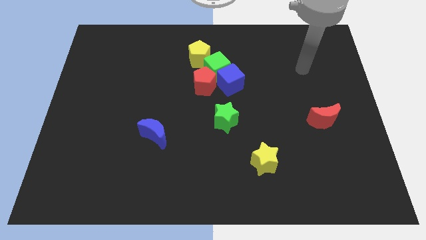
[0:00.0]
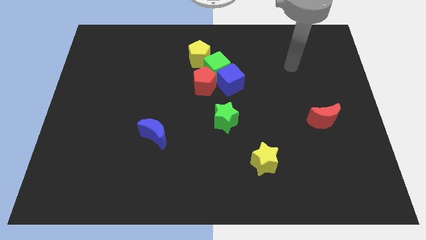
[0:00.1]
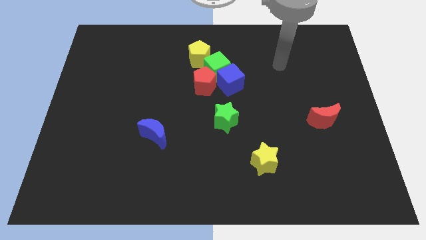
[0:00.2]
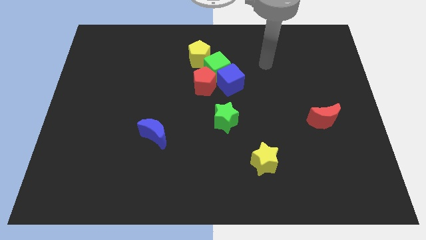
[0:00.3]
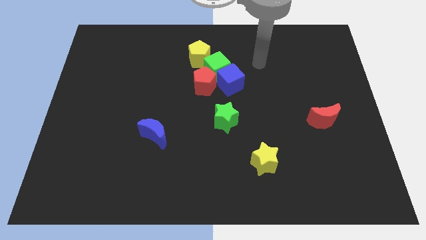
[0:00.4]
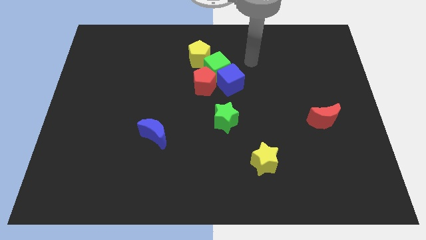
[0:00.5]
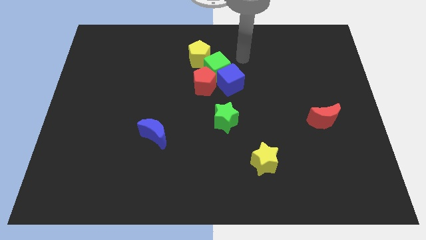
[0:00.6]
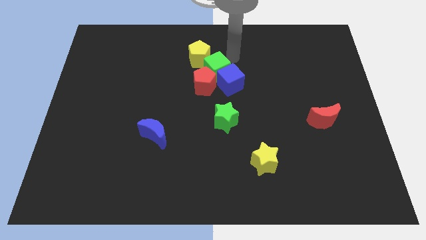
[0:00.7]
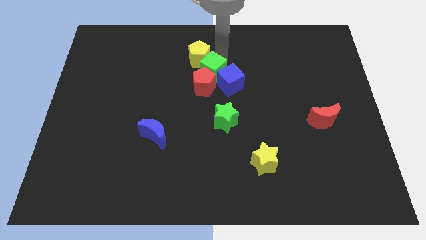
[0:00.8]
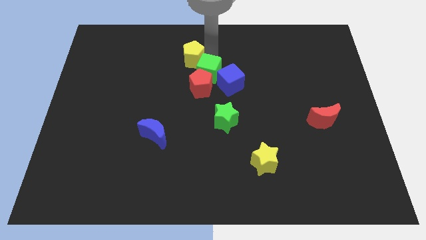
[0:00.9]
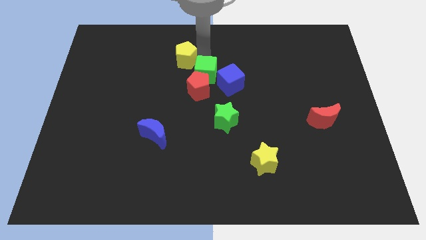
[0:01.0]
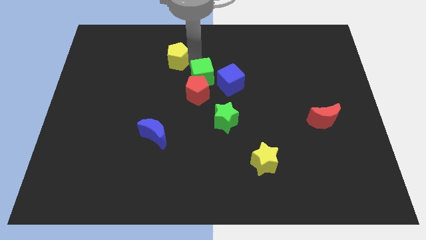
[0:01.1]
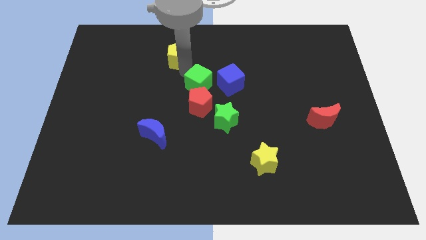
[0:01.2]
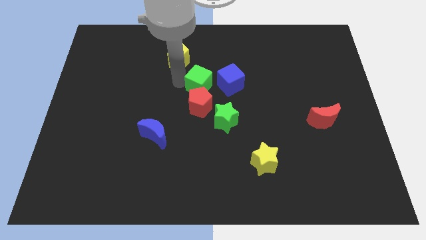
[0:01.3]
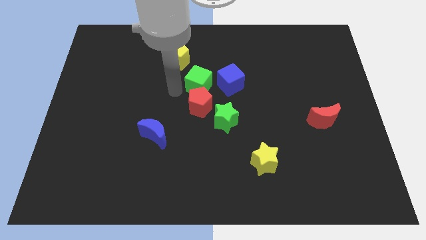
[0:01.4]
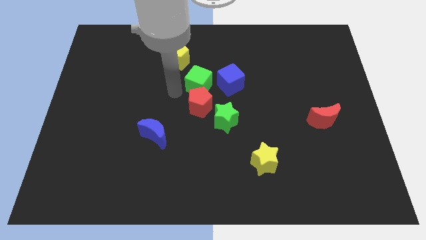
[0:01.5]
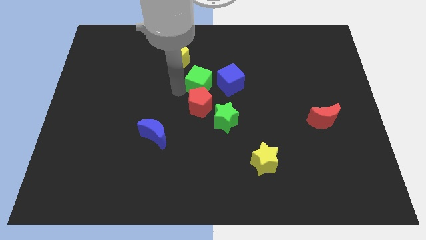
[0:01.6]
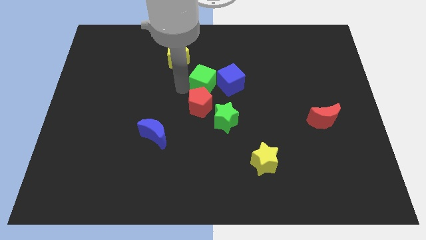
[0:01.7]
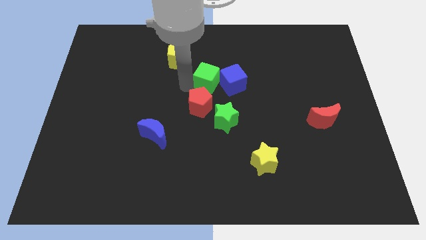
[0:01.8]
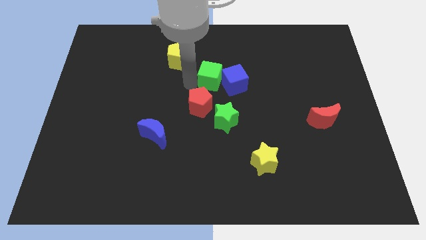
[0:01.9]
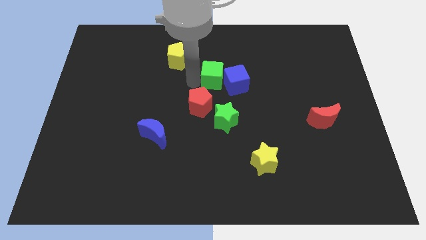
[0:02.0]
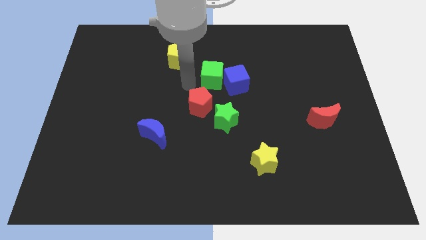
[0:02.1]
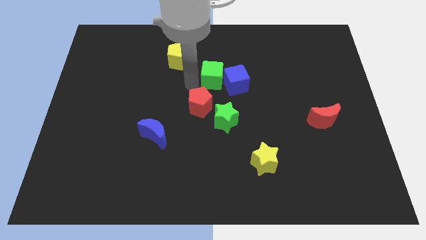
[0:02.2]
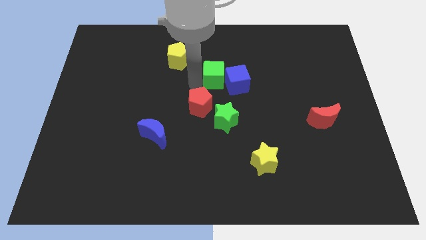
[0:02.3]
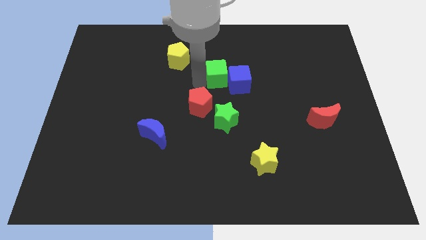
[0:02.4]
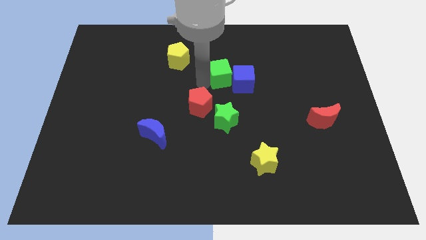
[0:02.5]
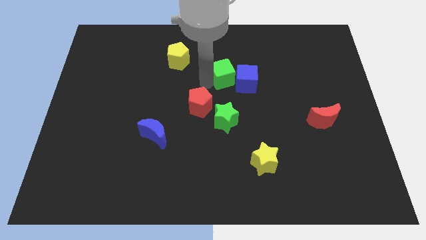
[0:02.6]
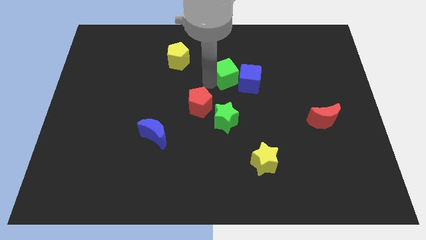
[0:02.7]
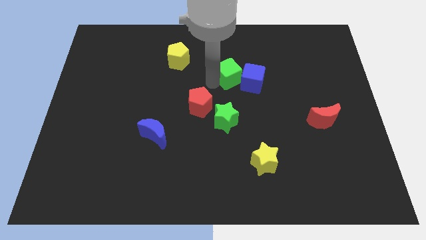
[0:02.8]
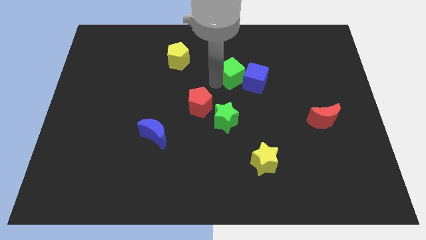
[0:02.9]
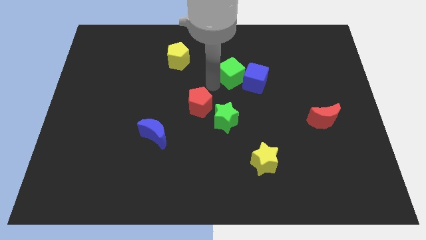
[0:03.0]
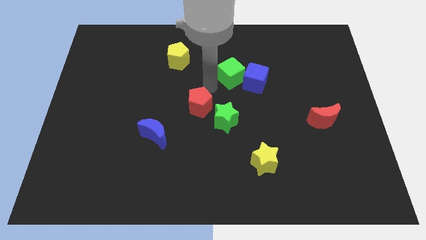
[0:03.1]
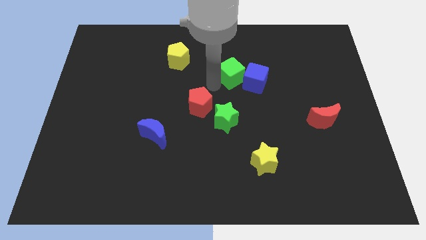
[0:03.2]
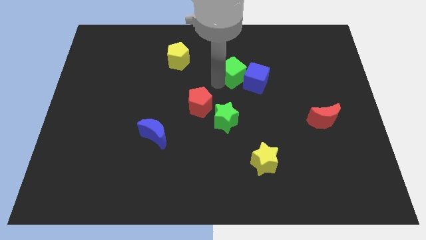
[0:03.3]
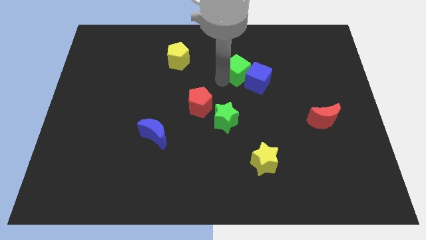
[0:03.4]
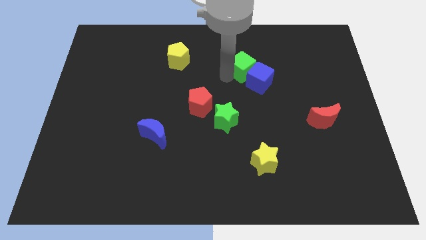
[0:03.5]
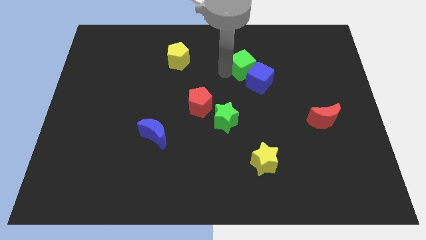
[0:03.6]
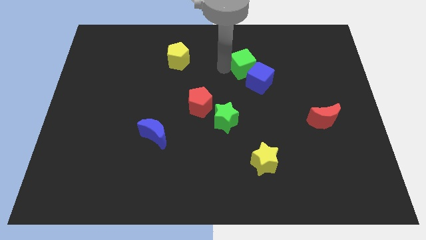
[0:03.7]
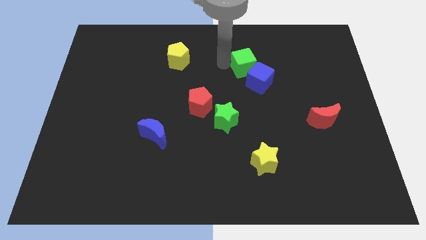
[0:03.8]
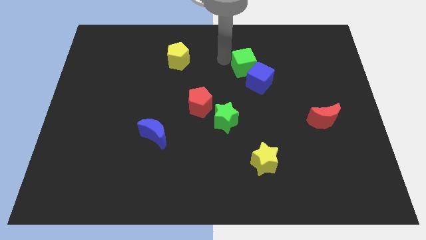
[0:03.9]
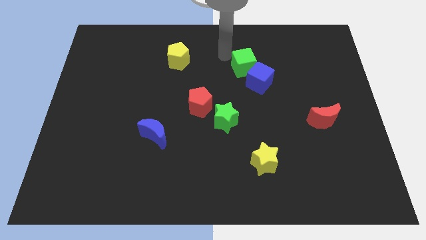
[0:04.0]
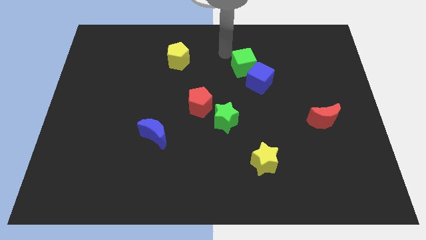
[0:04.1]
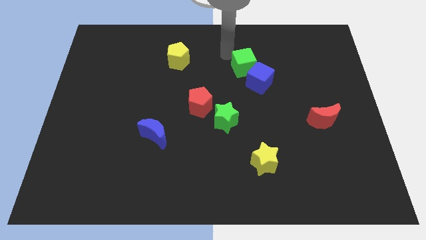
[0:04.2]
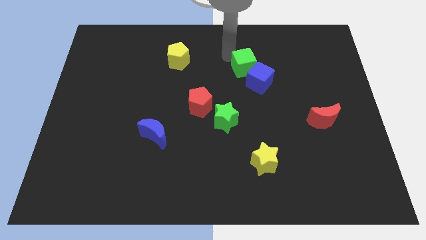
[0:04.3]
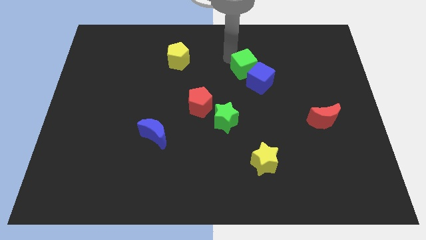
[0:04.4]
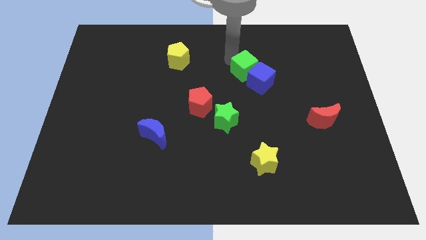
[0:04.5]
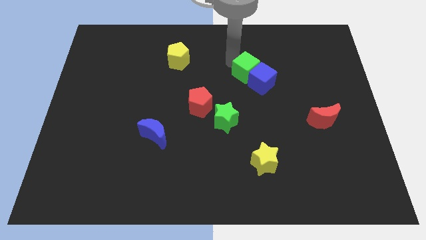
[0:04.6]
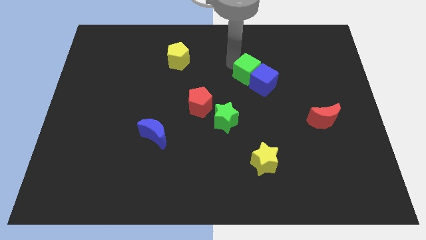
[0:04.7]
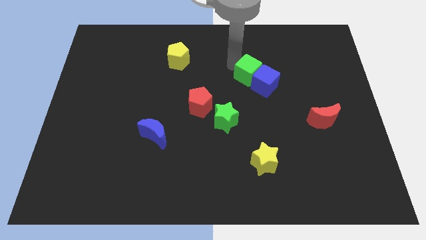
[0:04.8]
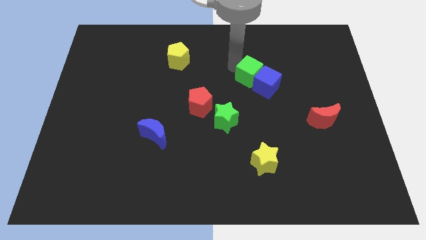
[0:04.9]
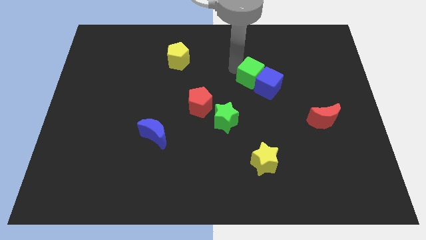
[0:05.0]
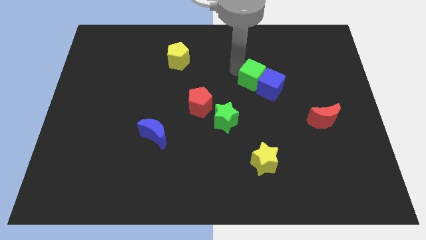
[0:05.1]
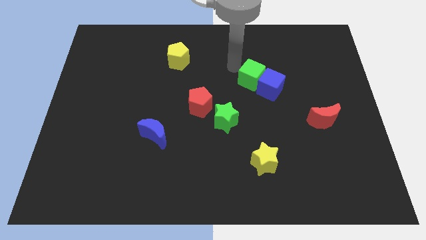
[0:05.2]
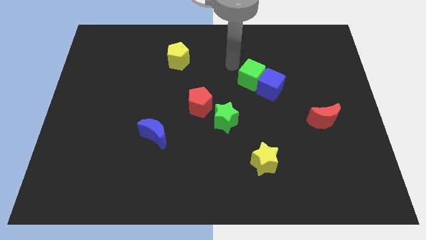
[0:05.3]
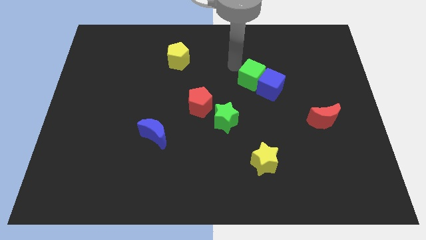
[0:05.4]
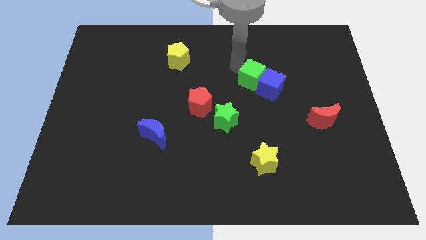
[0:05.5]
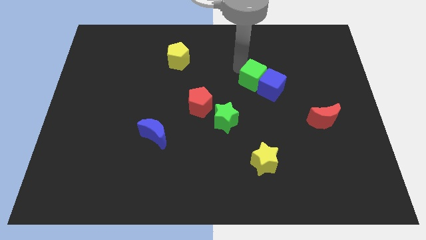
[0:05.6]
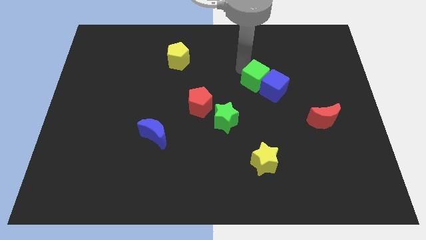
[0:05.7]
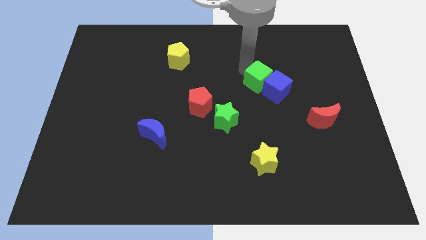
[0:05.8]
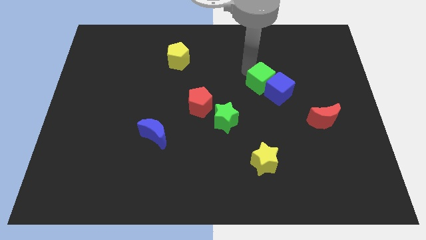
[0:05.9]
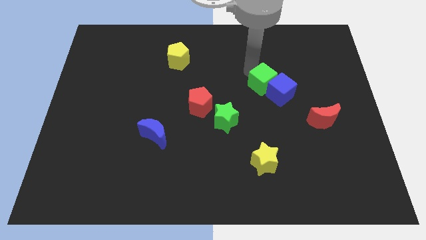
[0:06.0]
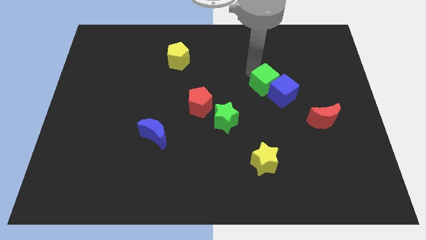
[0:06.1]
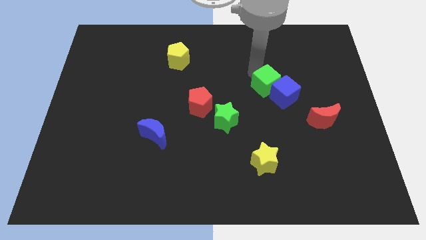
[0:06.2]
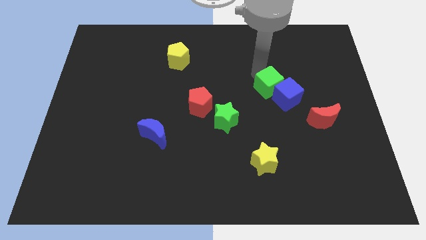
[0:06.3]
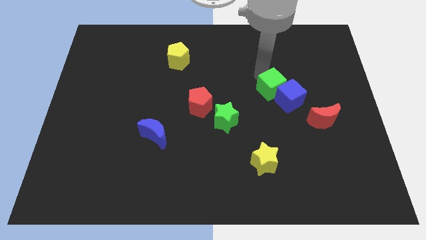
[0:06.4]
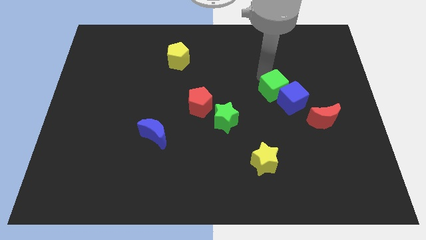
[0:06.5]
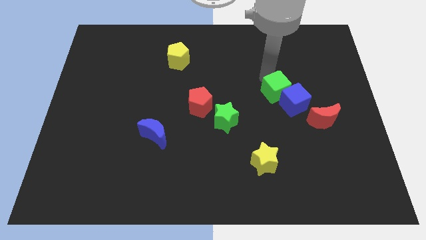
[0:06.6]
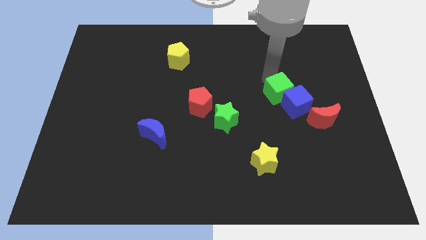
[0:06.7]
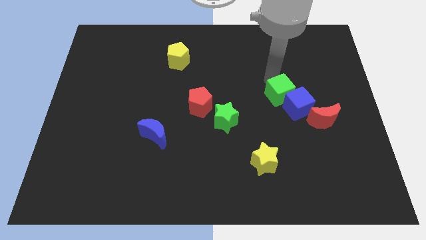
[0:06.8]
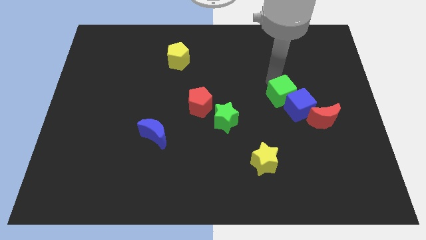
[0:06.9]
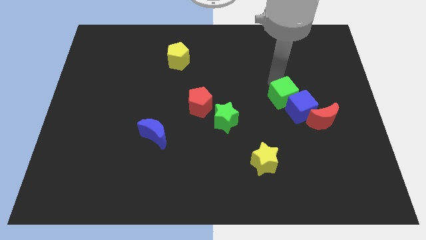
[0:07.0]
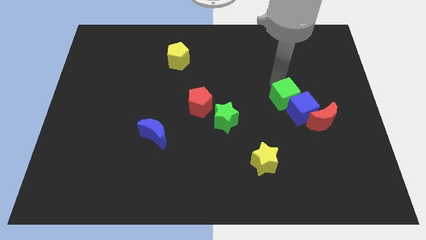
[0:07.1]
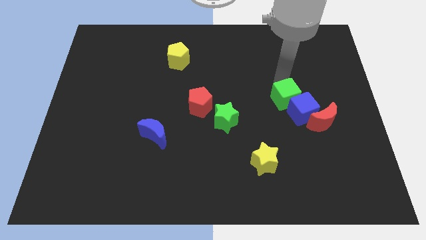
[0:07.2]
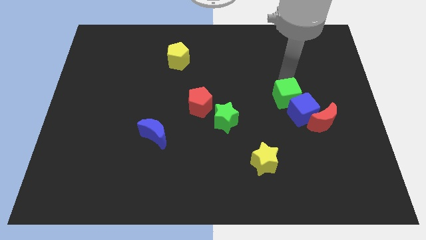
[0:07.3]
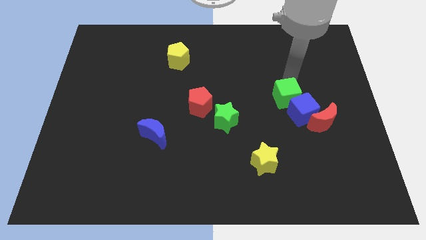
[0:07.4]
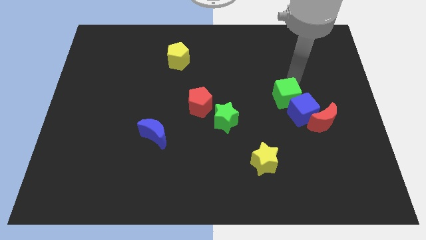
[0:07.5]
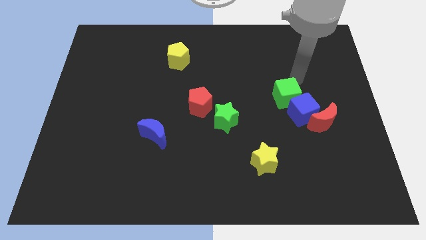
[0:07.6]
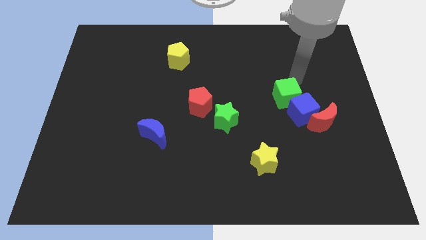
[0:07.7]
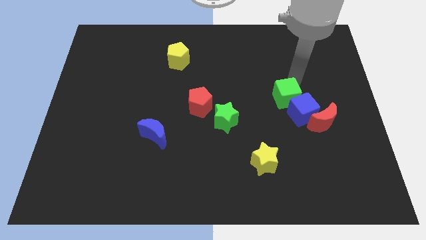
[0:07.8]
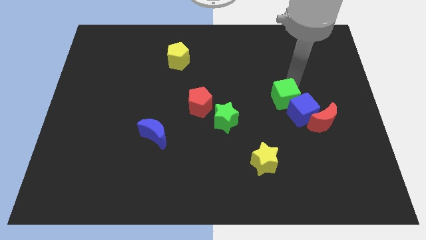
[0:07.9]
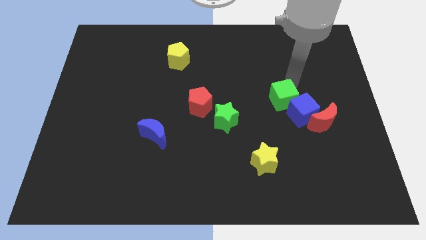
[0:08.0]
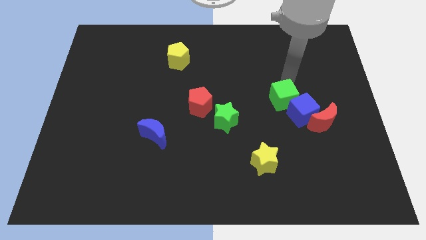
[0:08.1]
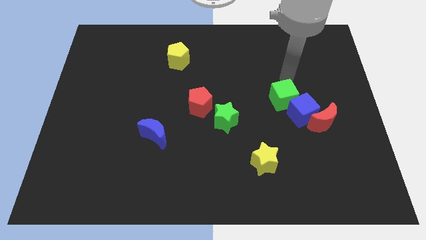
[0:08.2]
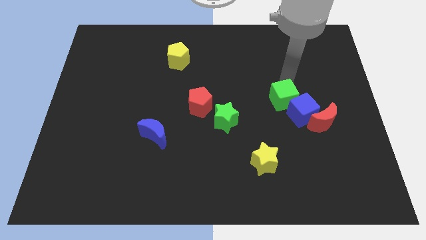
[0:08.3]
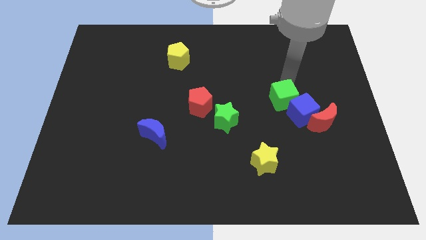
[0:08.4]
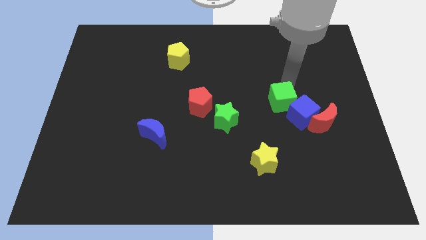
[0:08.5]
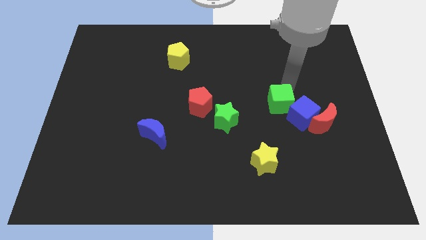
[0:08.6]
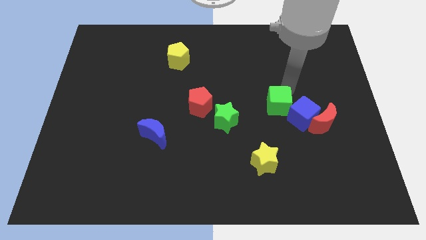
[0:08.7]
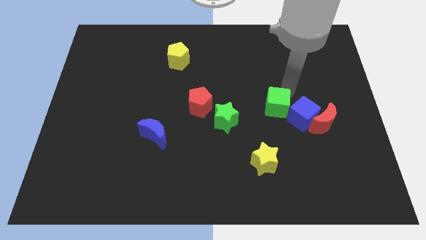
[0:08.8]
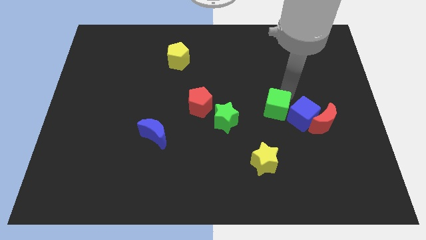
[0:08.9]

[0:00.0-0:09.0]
move the green cube left of the red moon
